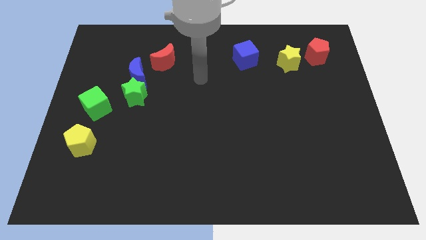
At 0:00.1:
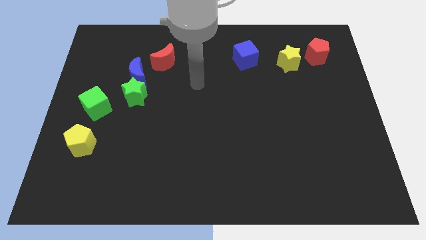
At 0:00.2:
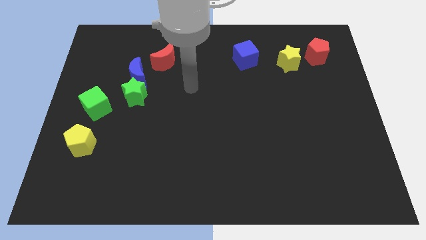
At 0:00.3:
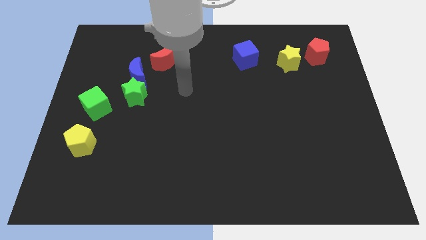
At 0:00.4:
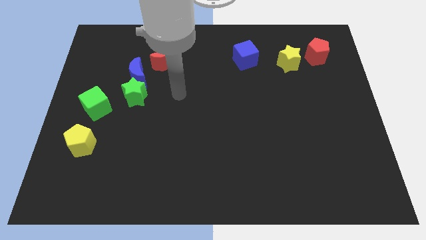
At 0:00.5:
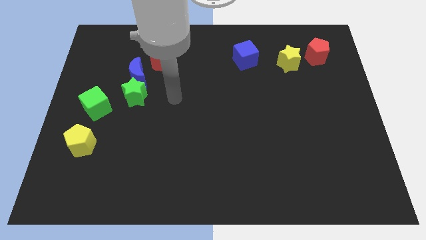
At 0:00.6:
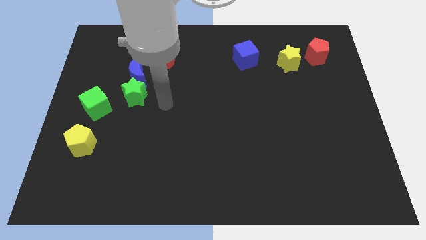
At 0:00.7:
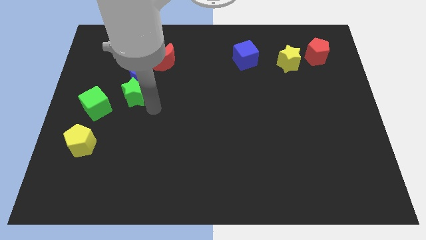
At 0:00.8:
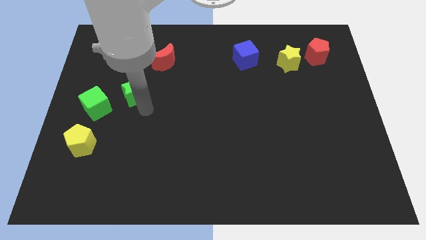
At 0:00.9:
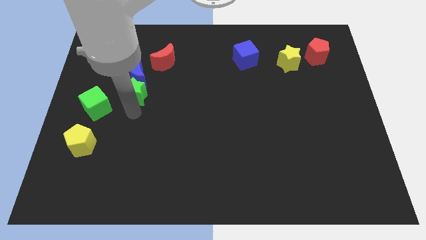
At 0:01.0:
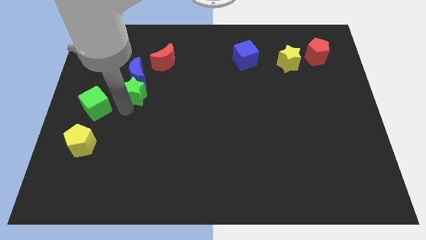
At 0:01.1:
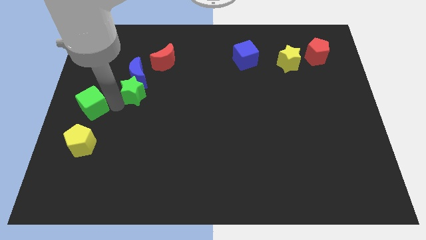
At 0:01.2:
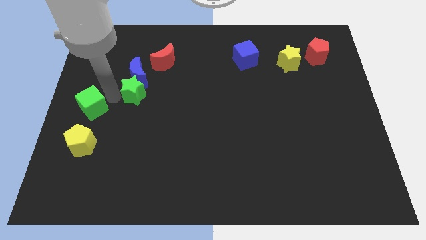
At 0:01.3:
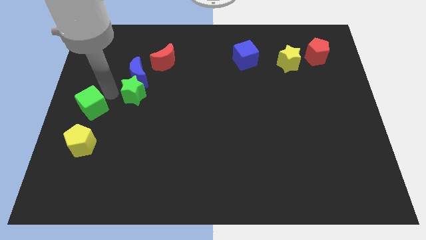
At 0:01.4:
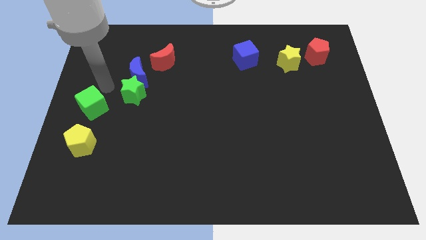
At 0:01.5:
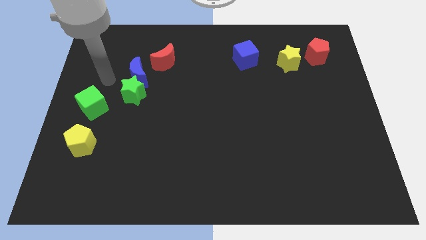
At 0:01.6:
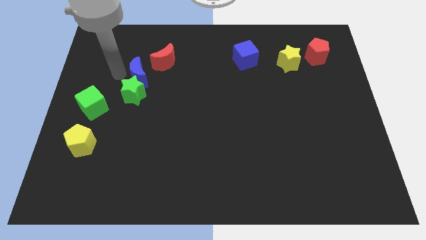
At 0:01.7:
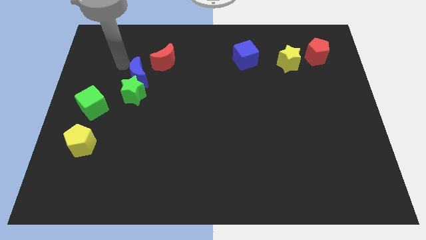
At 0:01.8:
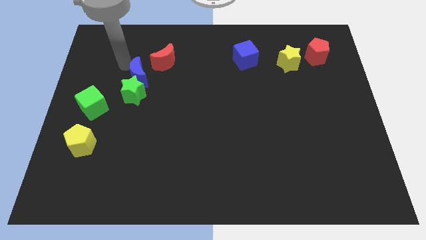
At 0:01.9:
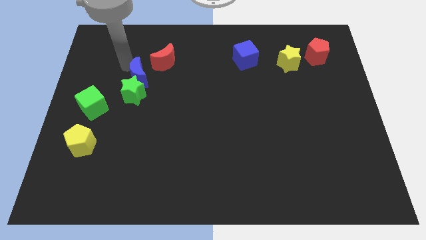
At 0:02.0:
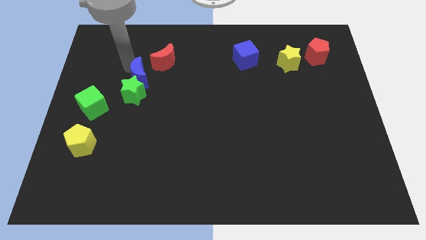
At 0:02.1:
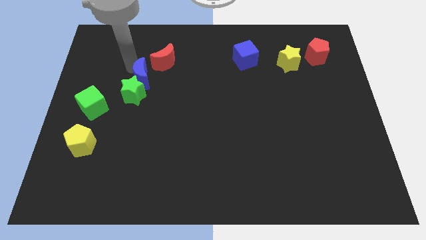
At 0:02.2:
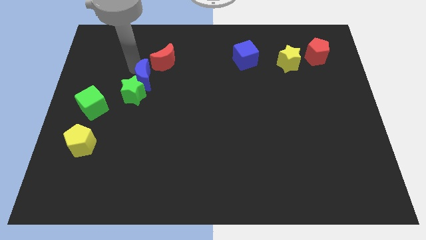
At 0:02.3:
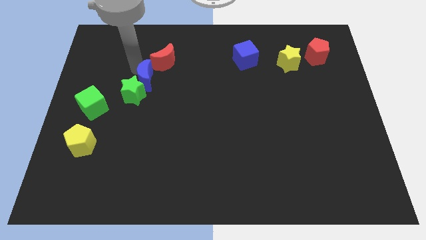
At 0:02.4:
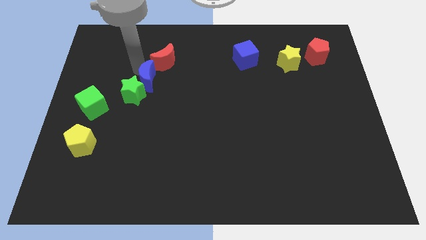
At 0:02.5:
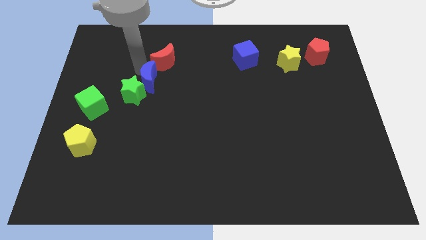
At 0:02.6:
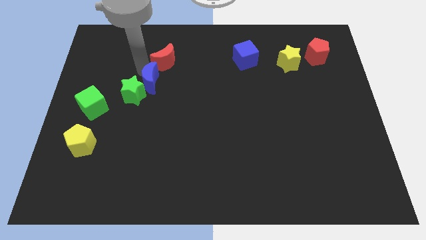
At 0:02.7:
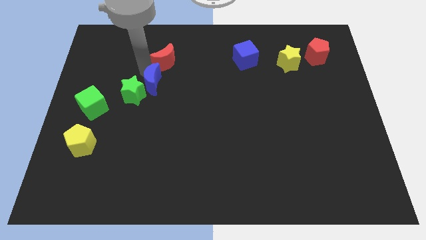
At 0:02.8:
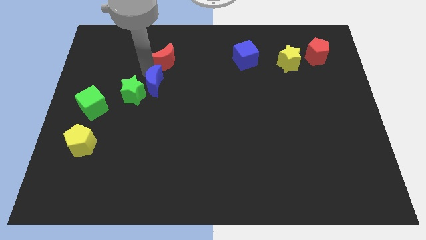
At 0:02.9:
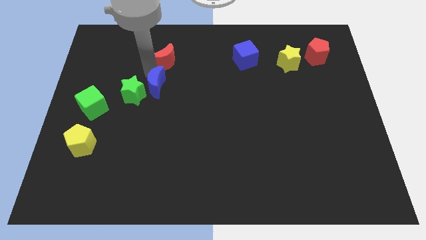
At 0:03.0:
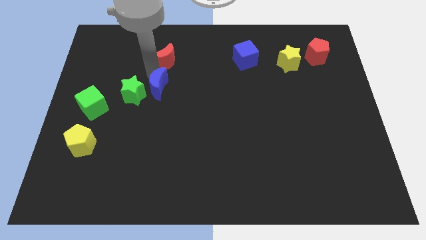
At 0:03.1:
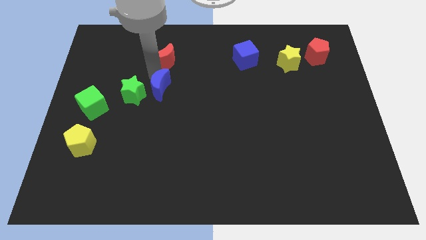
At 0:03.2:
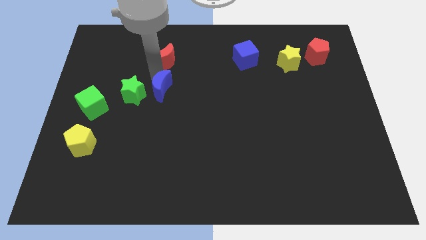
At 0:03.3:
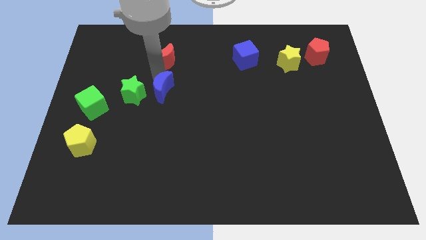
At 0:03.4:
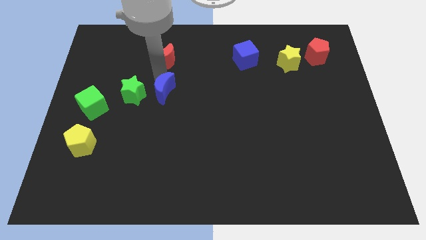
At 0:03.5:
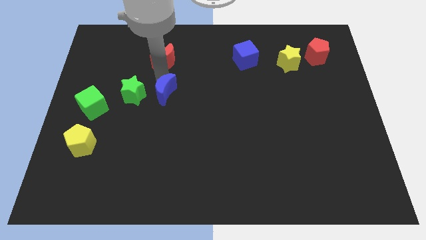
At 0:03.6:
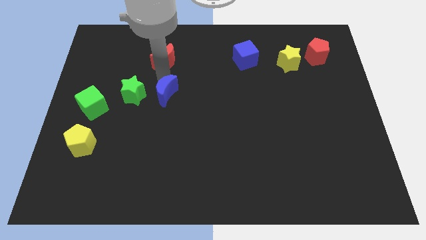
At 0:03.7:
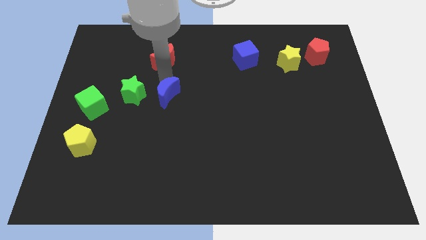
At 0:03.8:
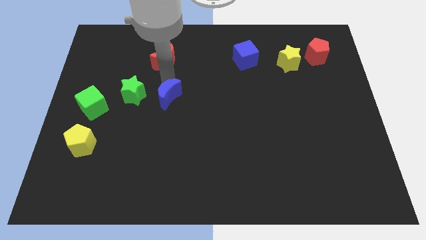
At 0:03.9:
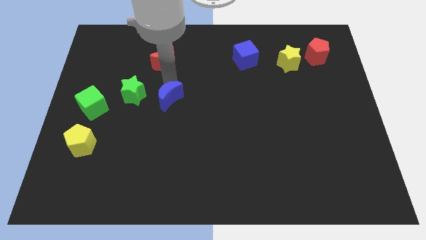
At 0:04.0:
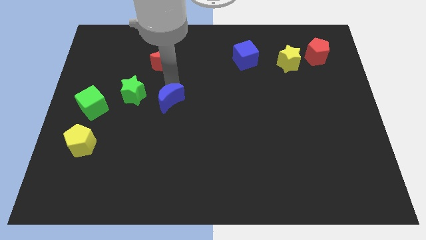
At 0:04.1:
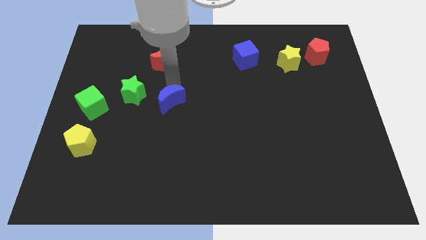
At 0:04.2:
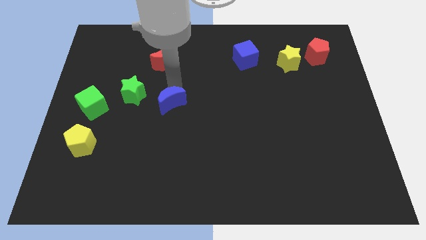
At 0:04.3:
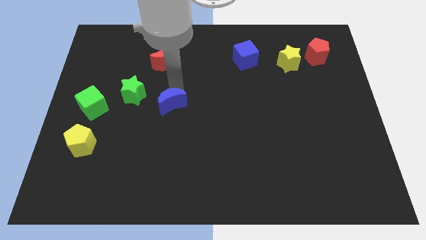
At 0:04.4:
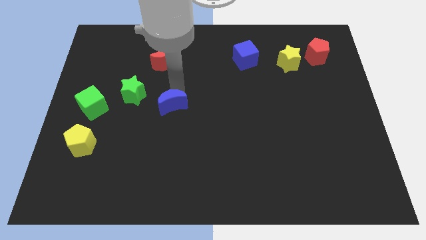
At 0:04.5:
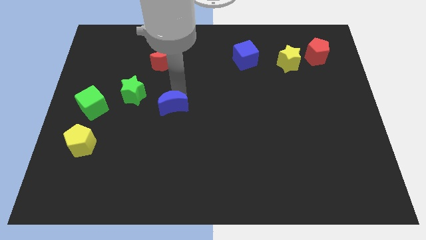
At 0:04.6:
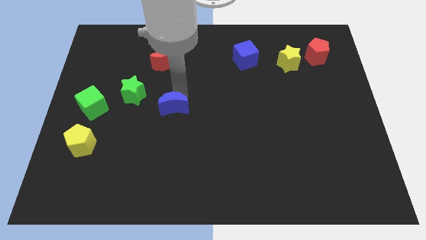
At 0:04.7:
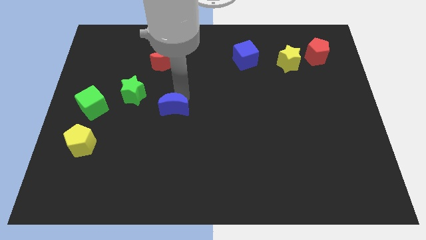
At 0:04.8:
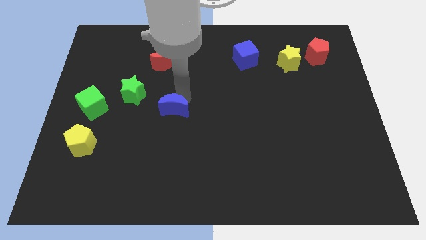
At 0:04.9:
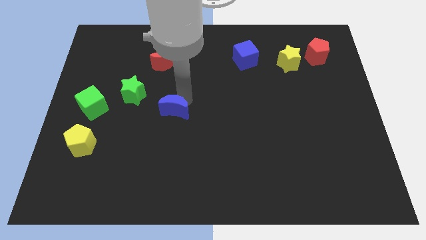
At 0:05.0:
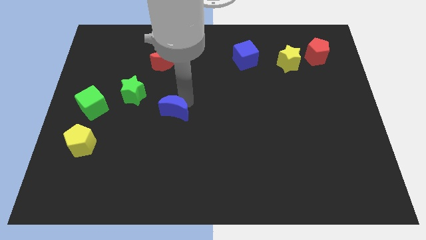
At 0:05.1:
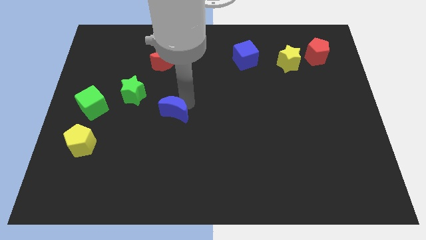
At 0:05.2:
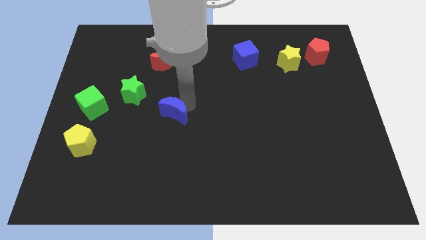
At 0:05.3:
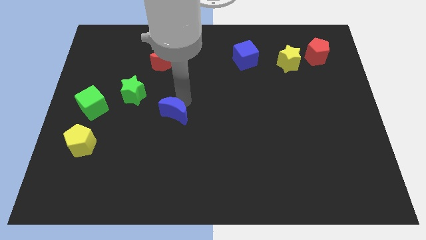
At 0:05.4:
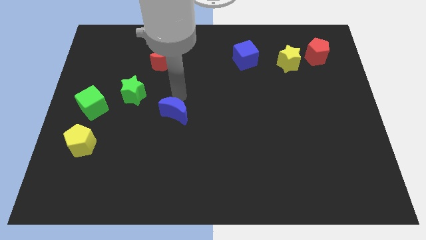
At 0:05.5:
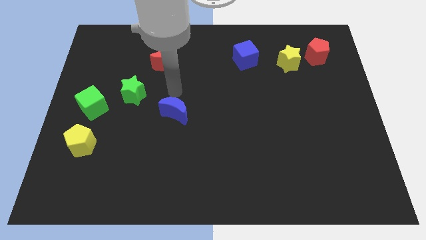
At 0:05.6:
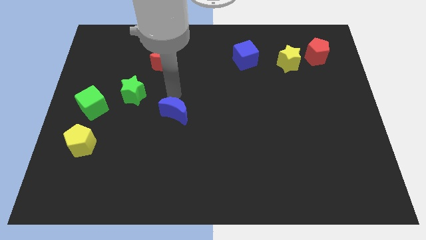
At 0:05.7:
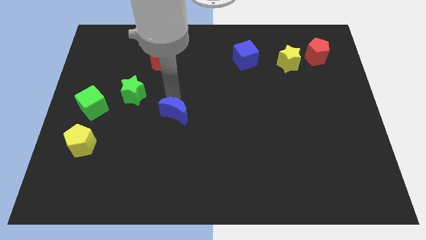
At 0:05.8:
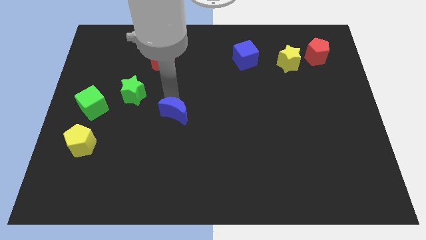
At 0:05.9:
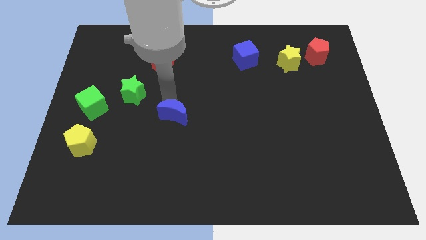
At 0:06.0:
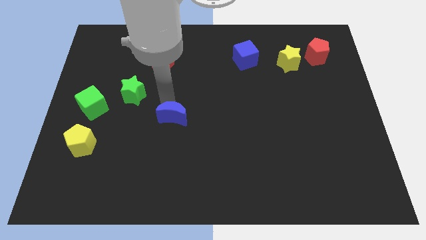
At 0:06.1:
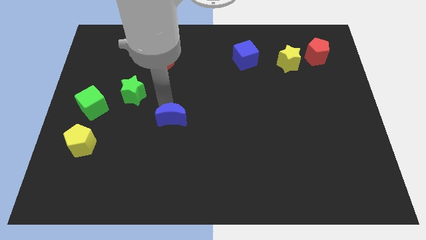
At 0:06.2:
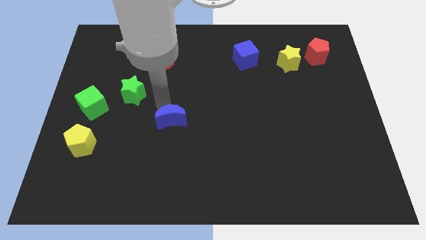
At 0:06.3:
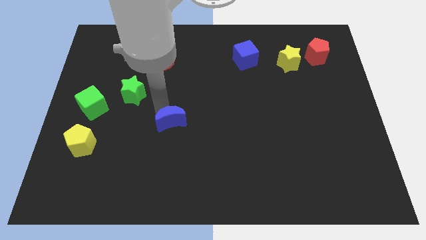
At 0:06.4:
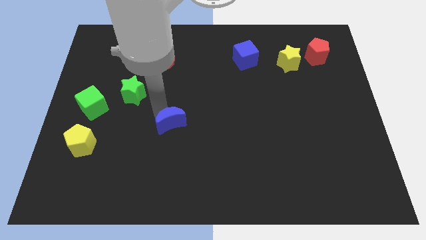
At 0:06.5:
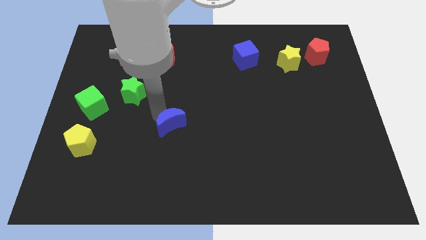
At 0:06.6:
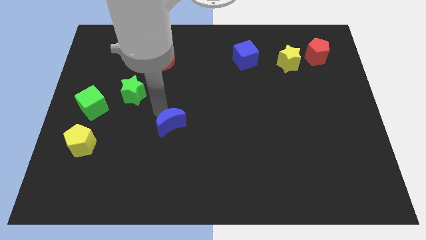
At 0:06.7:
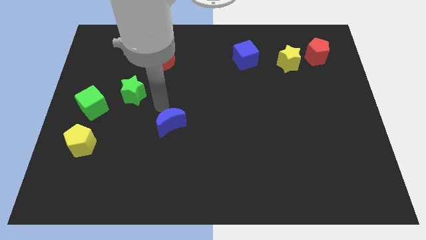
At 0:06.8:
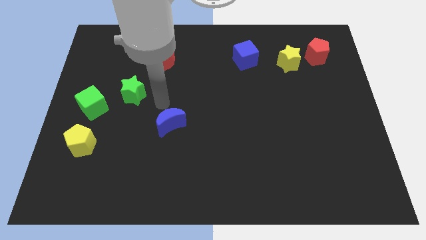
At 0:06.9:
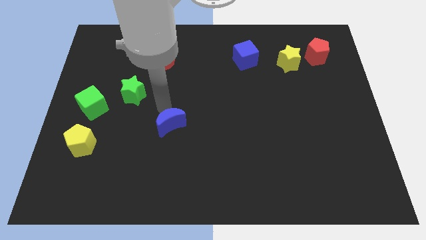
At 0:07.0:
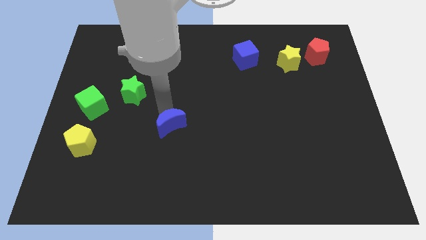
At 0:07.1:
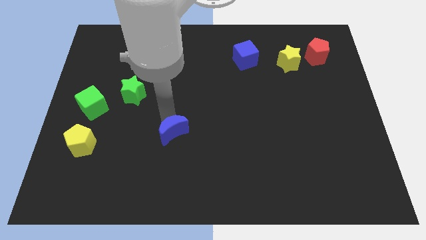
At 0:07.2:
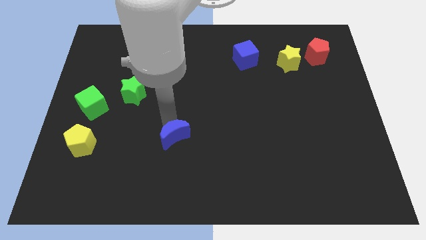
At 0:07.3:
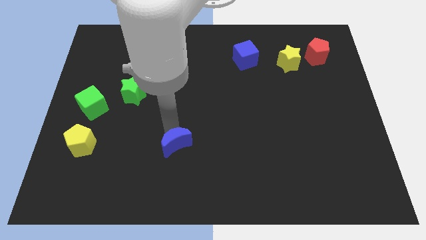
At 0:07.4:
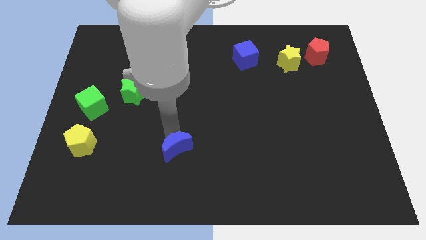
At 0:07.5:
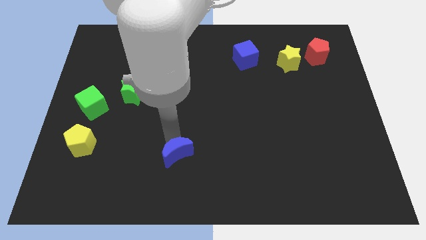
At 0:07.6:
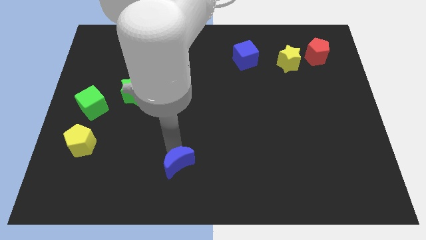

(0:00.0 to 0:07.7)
slide the blue moon to the bottom
